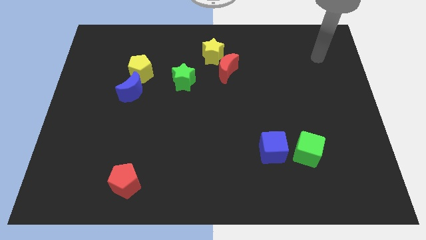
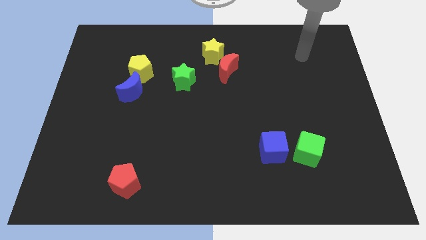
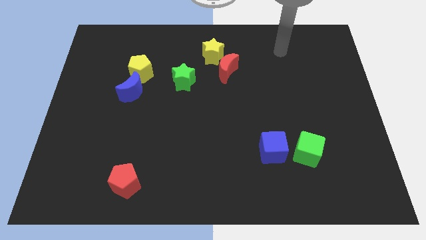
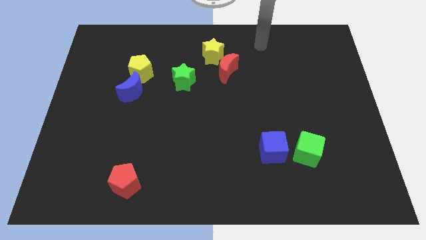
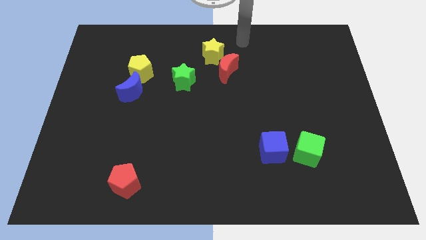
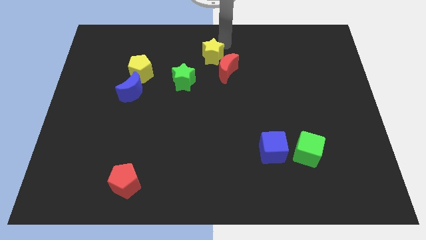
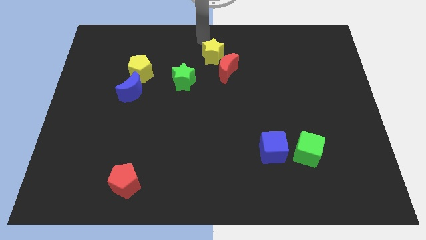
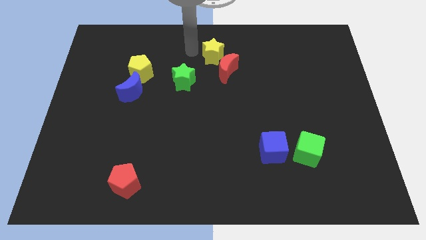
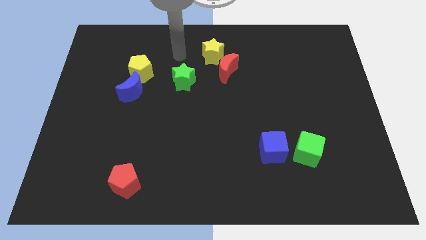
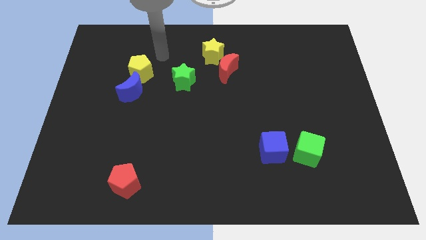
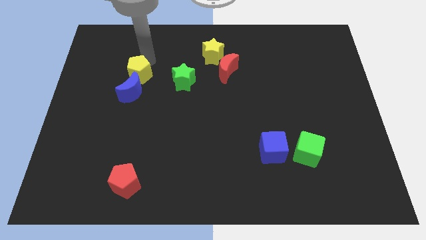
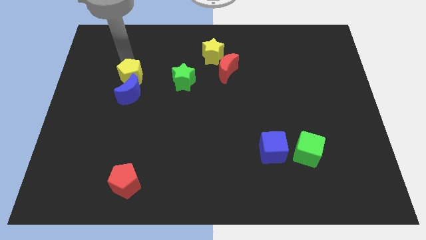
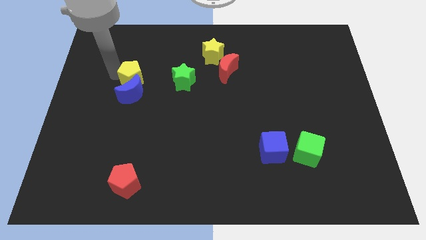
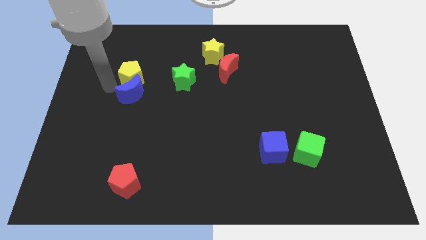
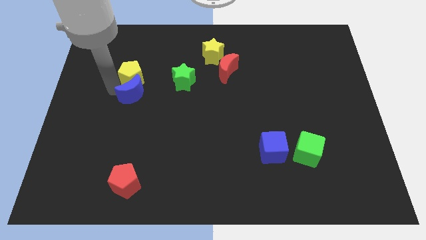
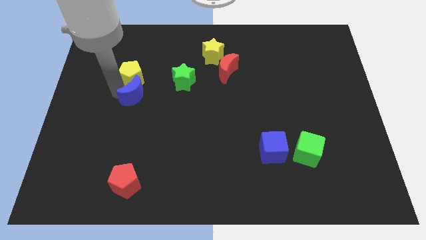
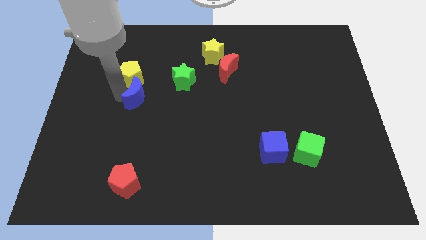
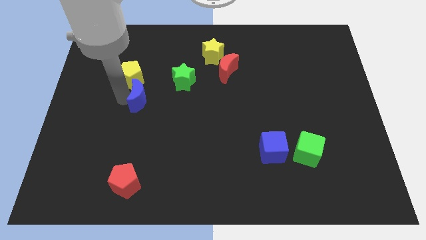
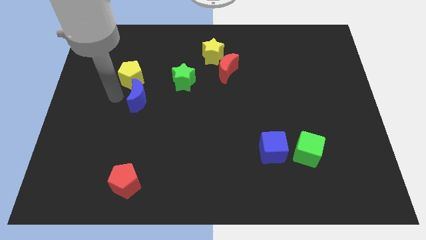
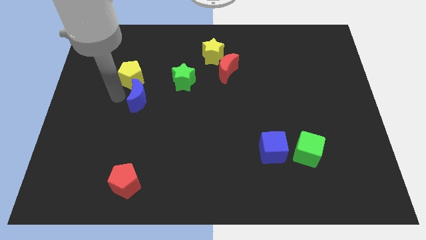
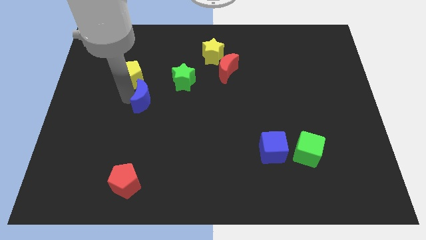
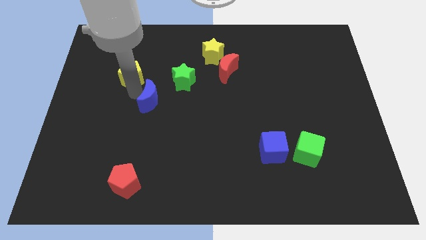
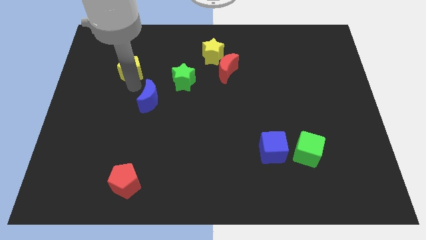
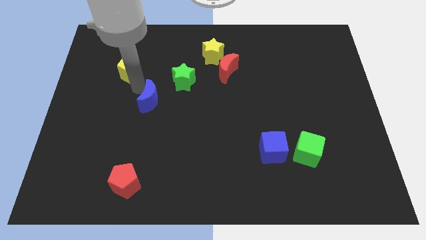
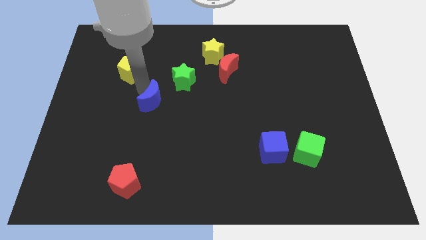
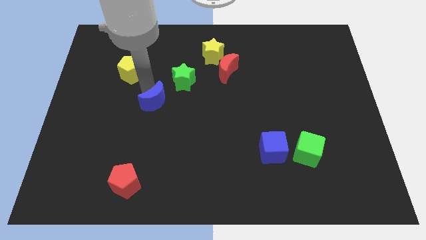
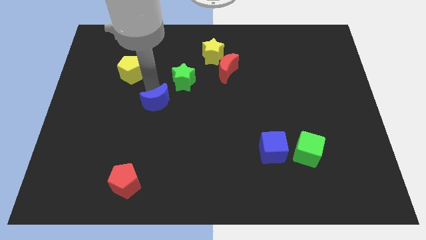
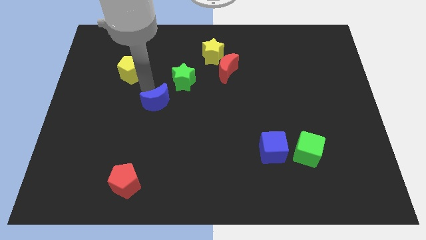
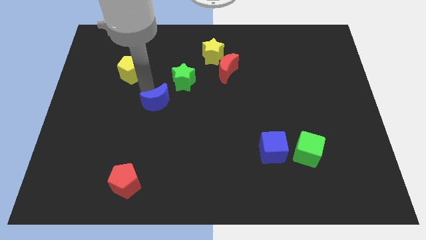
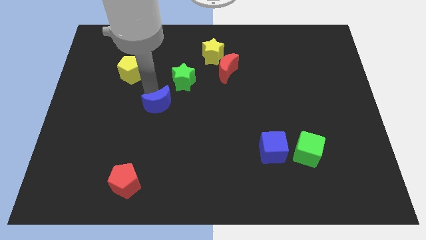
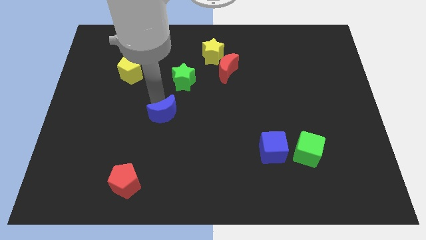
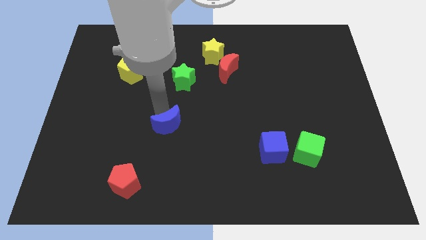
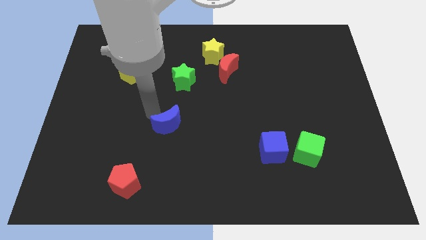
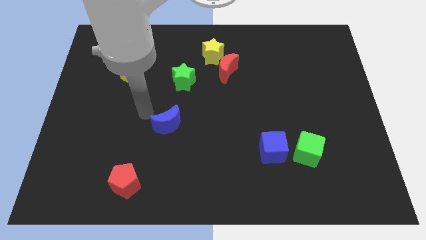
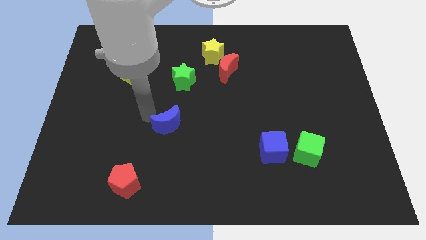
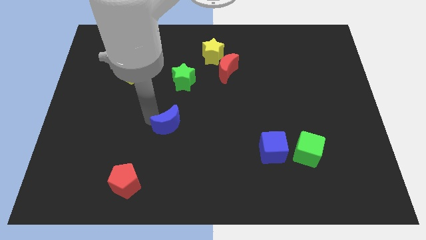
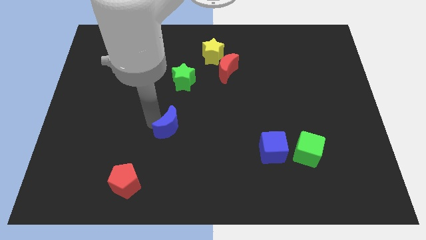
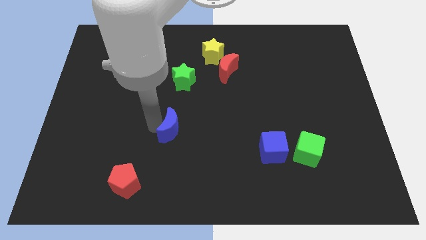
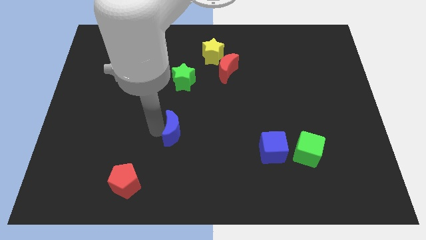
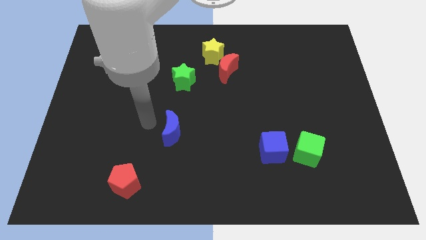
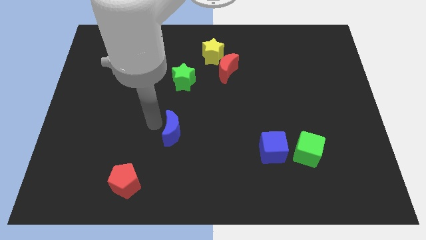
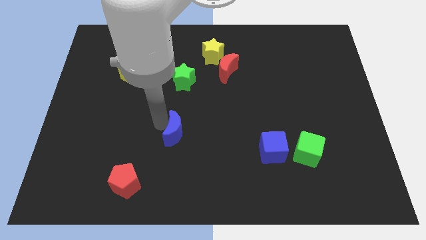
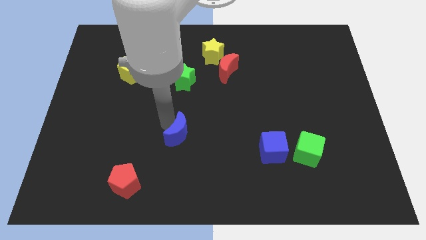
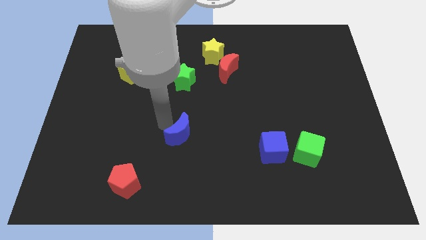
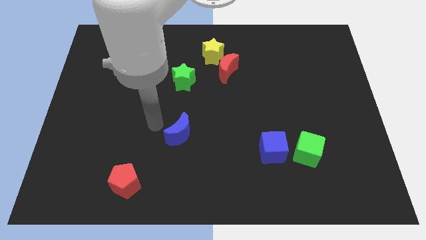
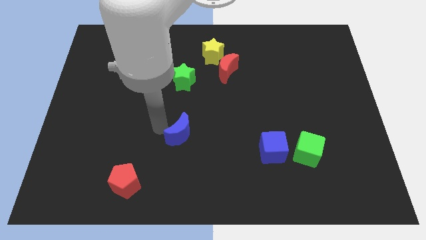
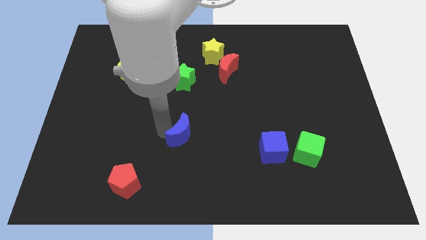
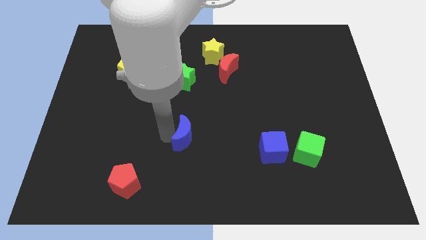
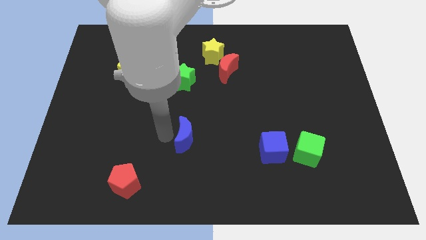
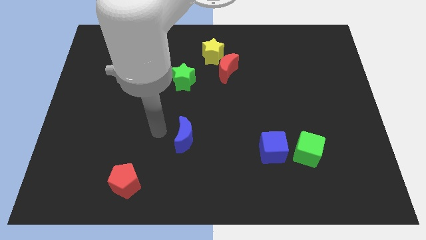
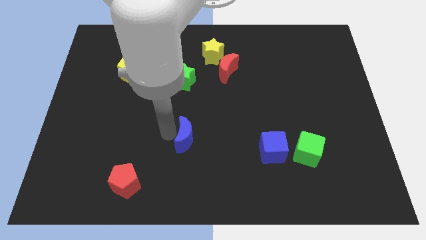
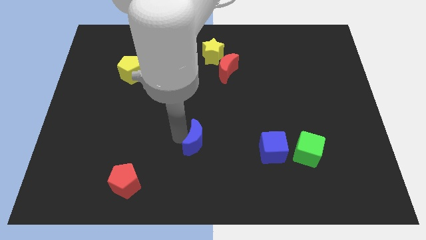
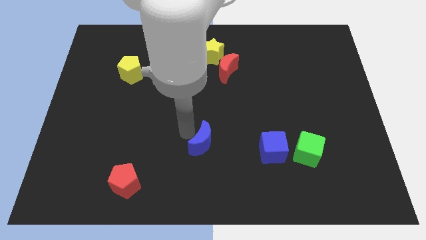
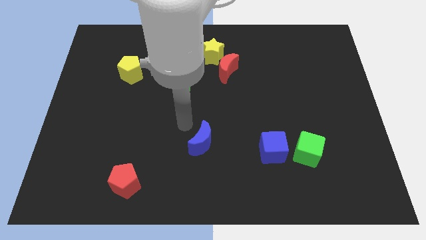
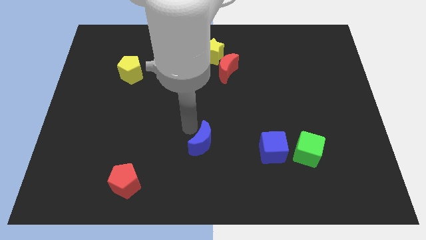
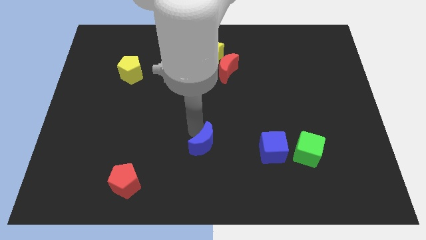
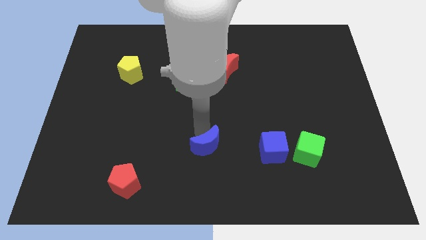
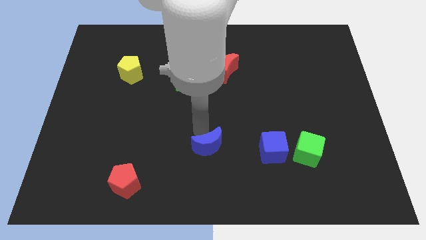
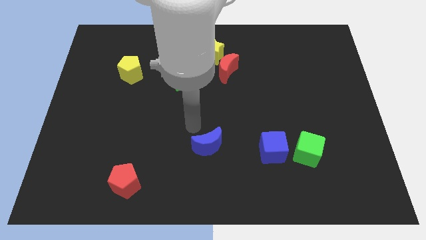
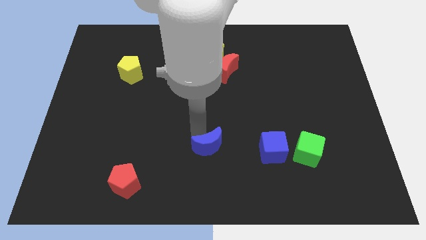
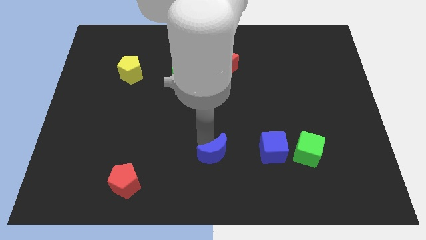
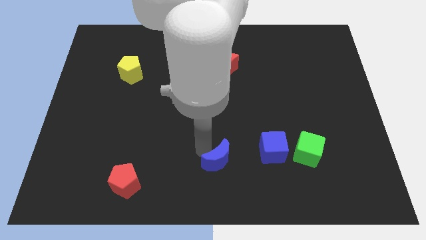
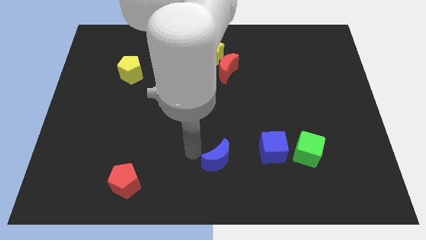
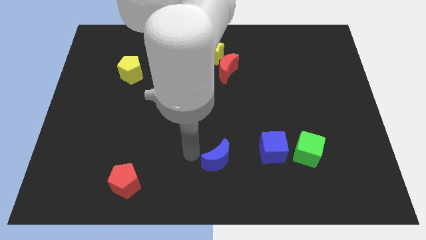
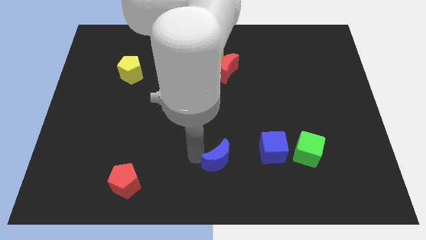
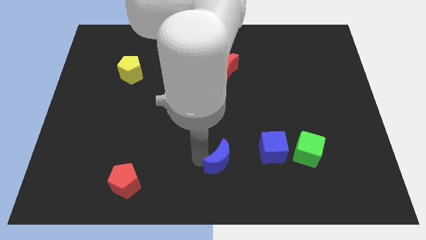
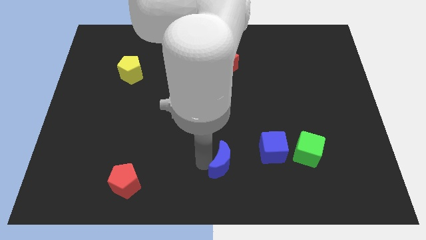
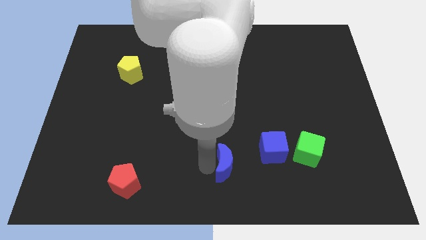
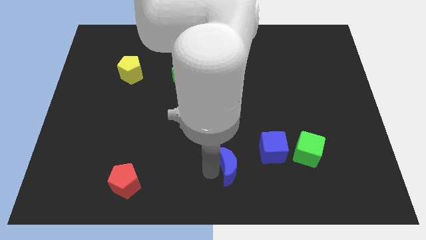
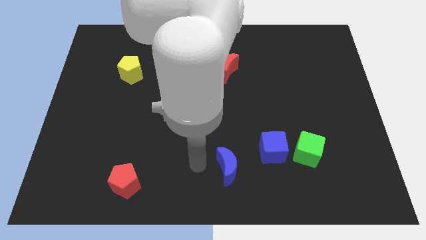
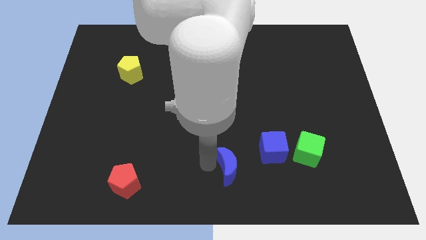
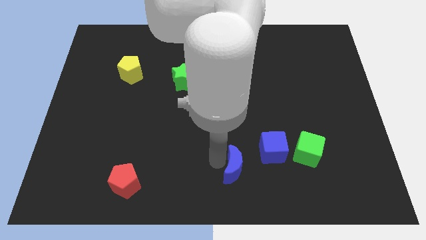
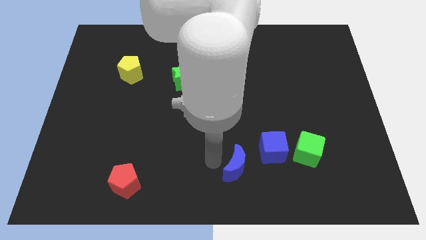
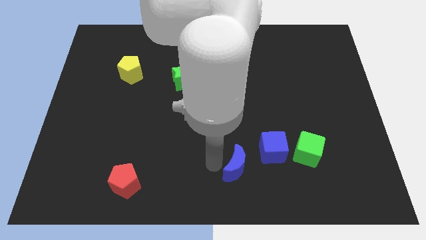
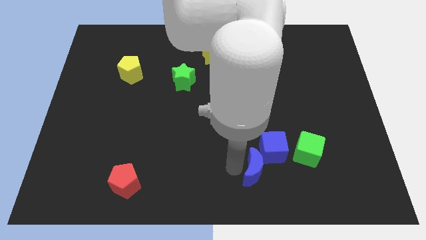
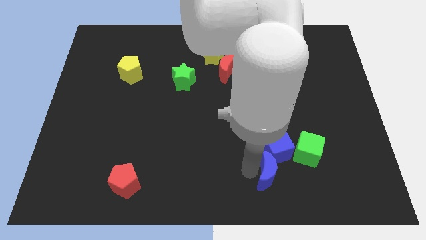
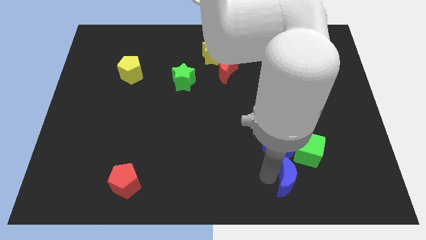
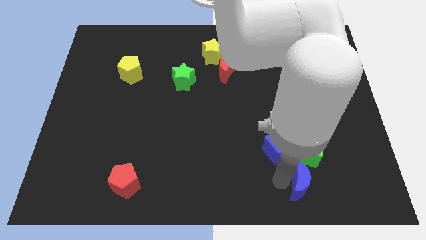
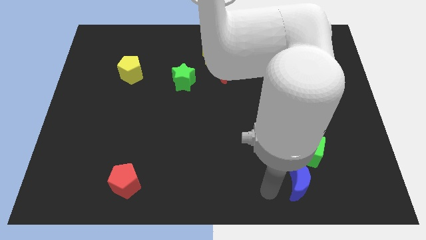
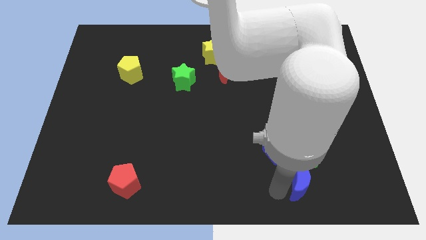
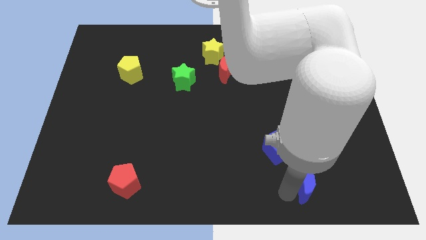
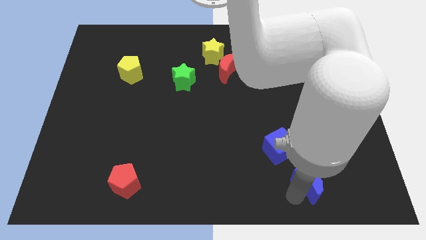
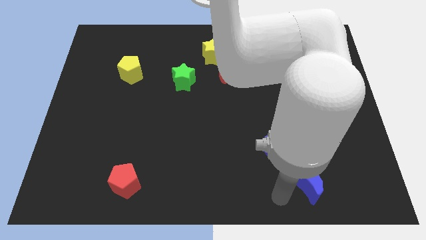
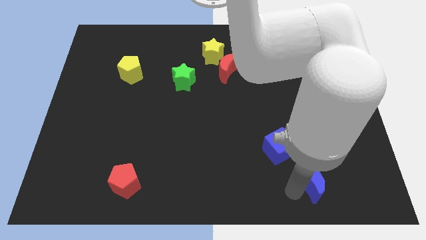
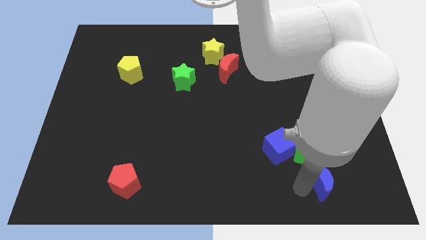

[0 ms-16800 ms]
put the blue moon to the bottom right side of the green cube
